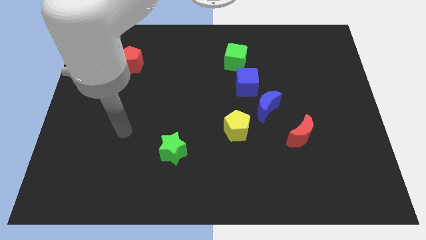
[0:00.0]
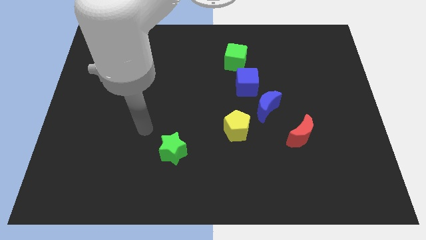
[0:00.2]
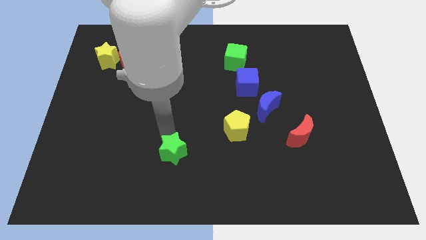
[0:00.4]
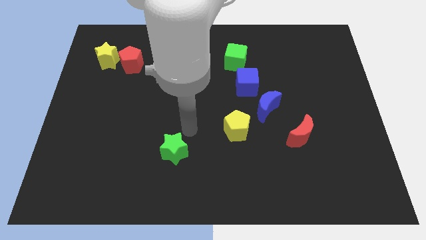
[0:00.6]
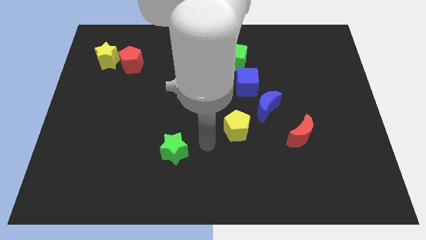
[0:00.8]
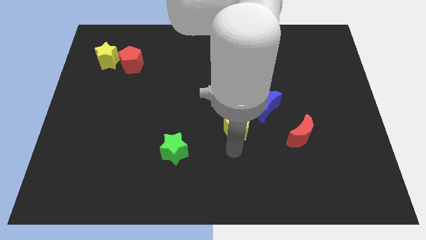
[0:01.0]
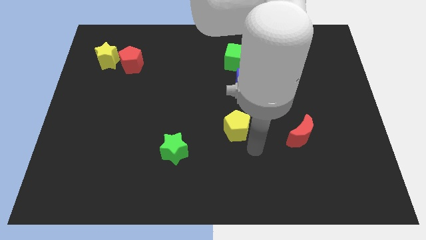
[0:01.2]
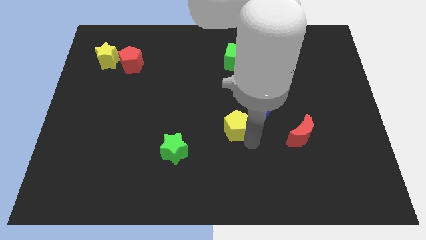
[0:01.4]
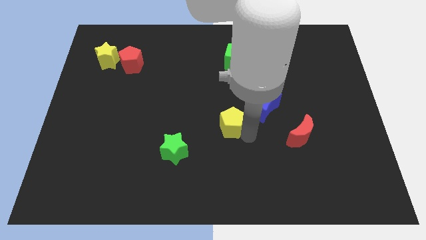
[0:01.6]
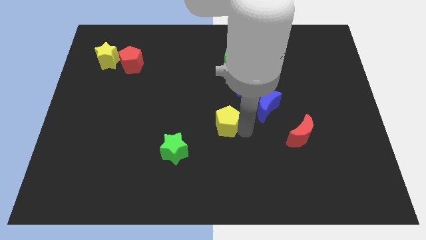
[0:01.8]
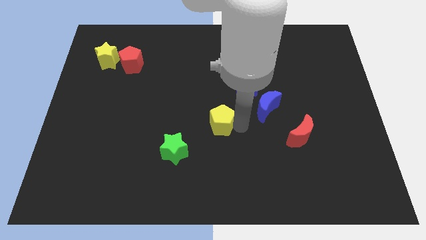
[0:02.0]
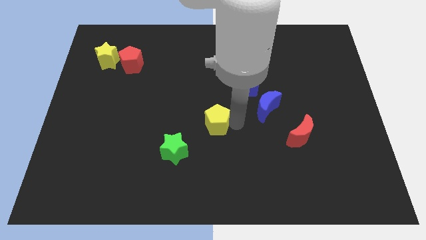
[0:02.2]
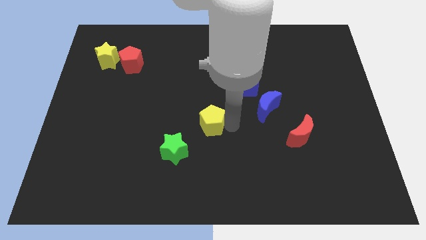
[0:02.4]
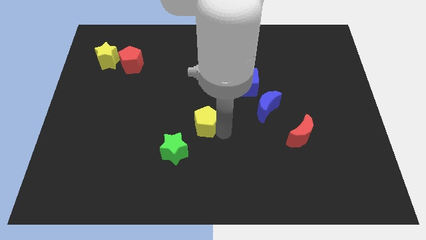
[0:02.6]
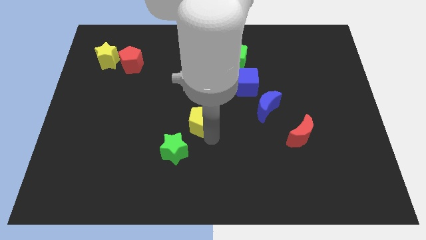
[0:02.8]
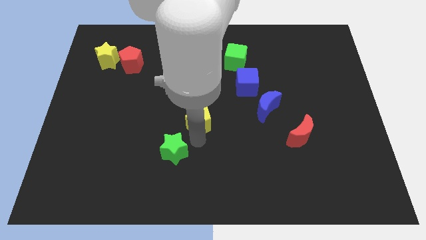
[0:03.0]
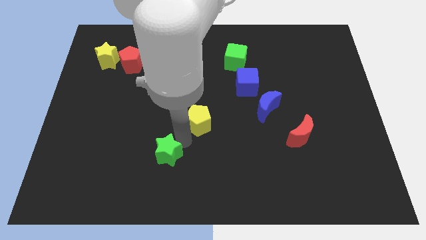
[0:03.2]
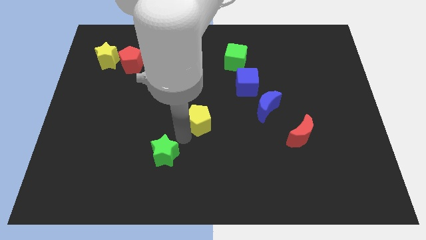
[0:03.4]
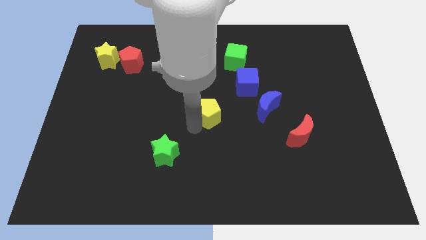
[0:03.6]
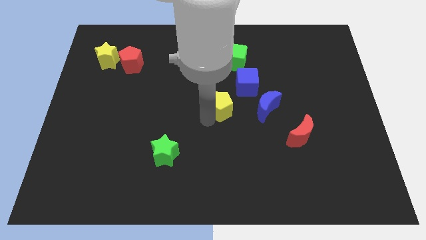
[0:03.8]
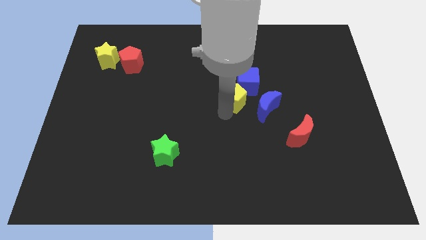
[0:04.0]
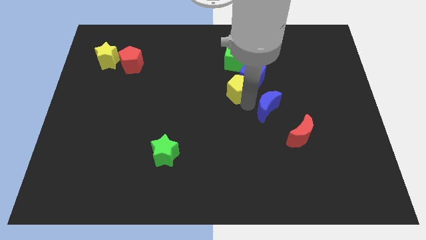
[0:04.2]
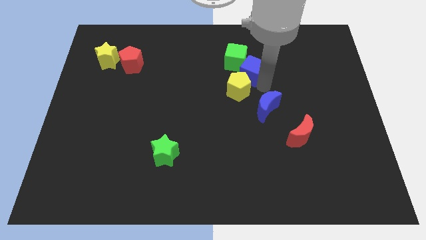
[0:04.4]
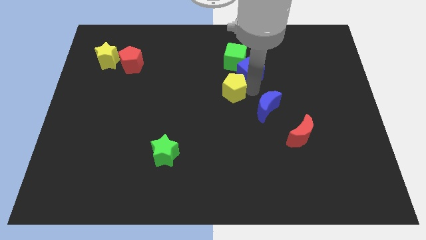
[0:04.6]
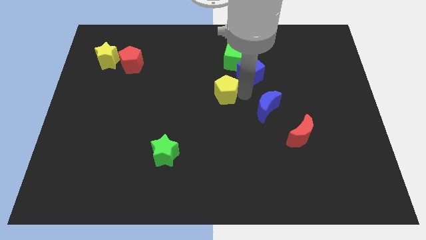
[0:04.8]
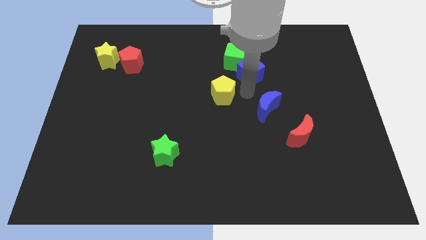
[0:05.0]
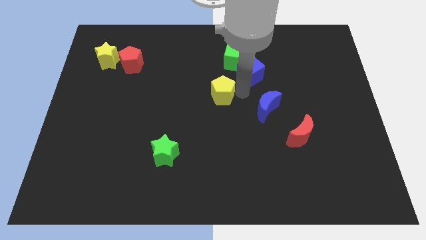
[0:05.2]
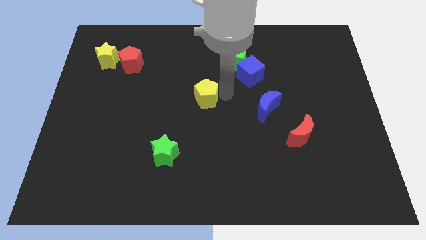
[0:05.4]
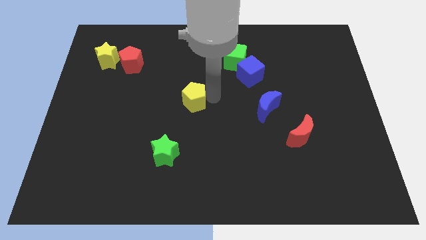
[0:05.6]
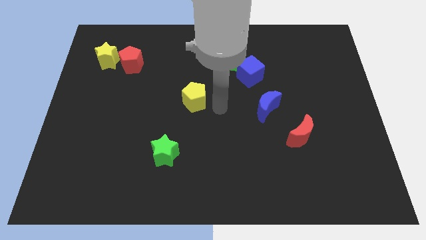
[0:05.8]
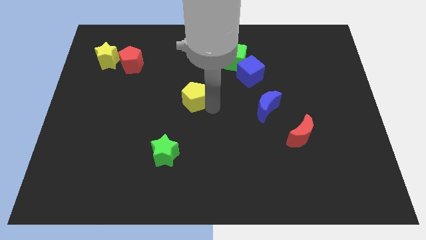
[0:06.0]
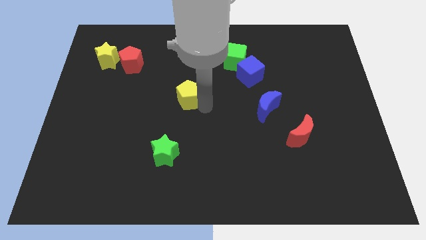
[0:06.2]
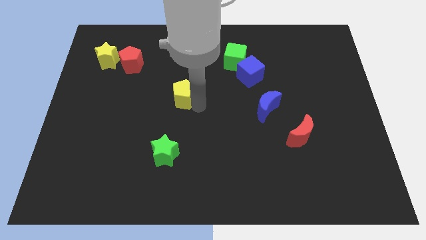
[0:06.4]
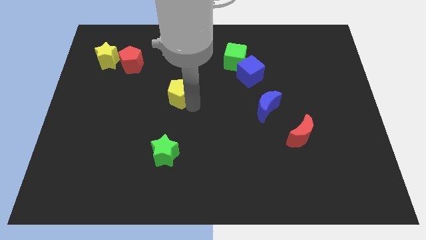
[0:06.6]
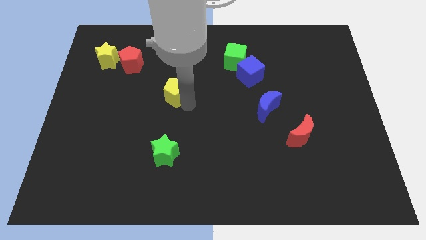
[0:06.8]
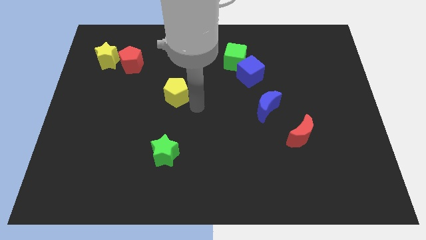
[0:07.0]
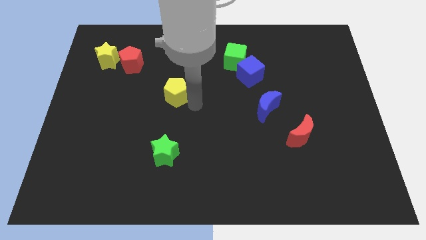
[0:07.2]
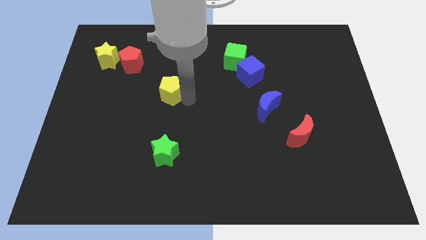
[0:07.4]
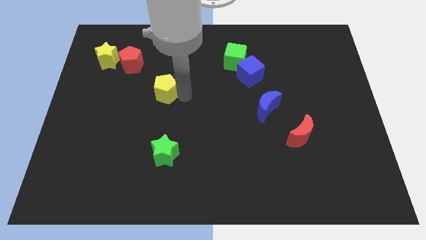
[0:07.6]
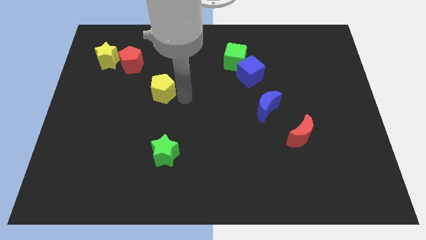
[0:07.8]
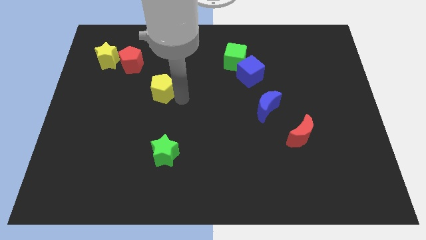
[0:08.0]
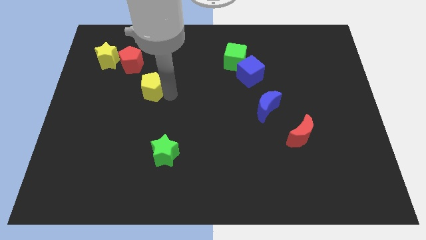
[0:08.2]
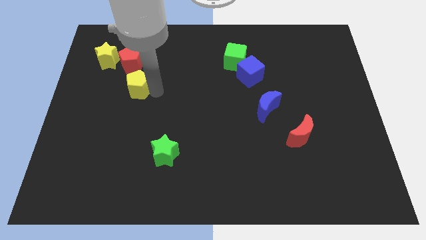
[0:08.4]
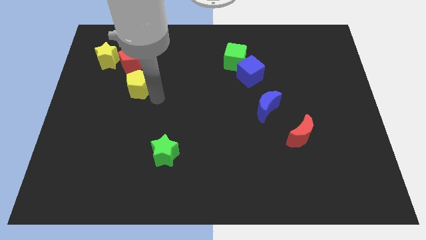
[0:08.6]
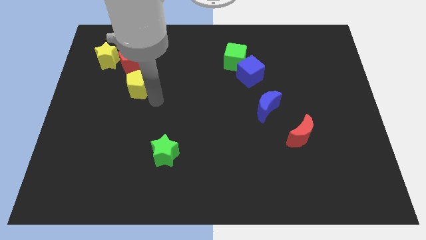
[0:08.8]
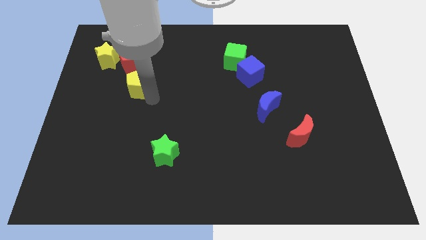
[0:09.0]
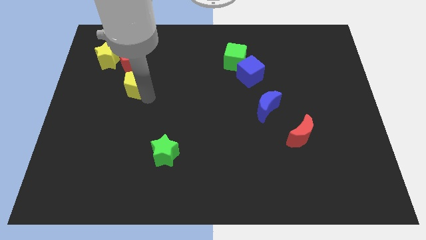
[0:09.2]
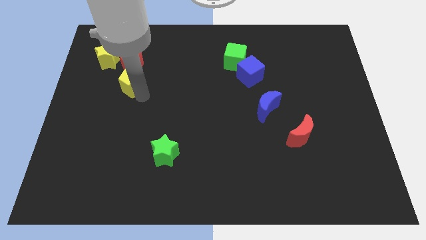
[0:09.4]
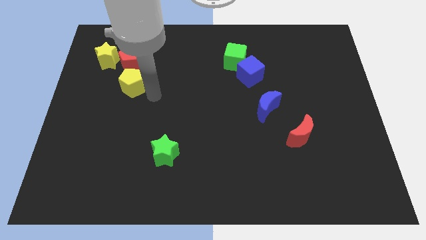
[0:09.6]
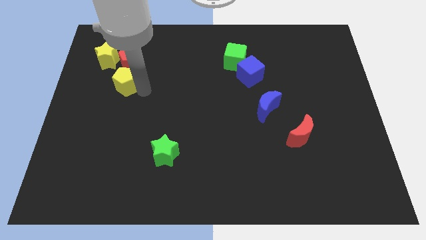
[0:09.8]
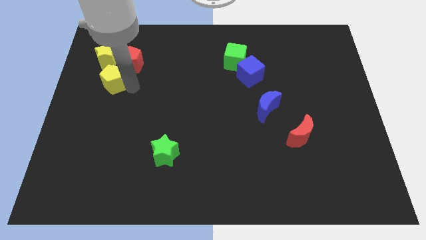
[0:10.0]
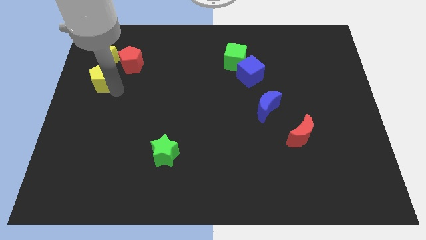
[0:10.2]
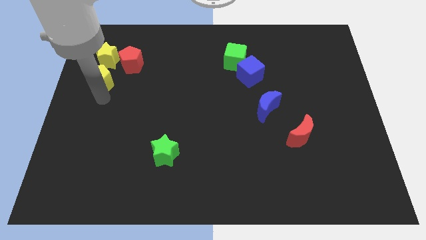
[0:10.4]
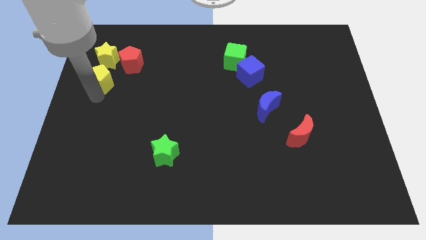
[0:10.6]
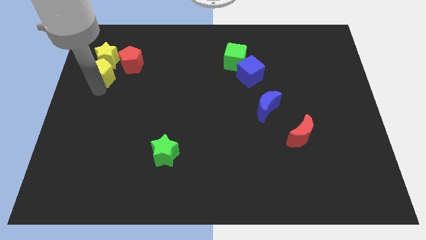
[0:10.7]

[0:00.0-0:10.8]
push the yellow pentagon close to the yellow star

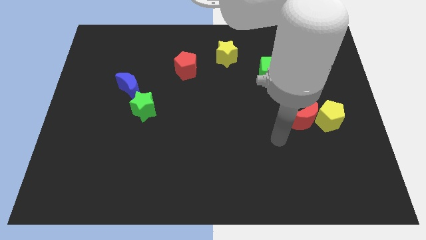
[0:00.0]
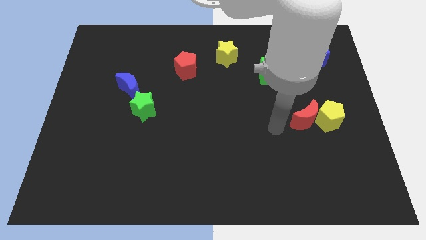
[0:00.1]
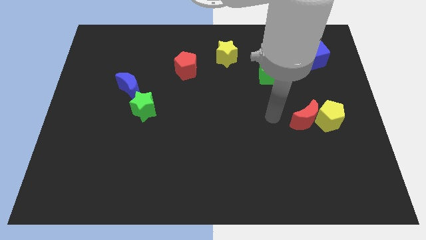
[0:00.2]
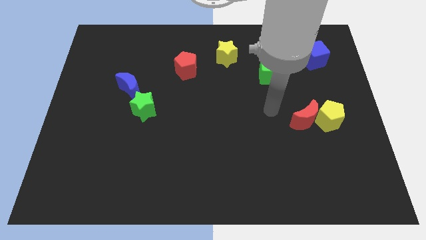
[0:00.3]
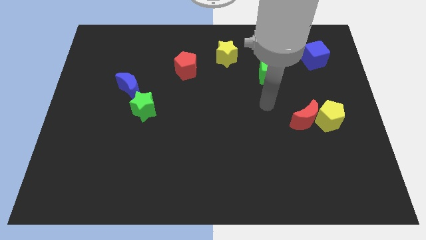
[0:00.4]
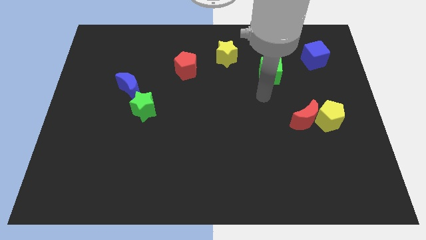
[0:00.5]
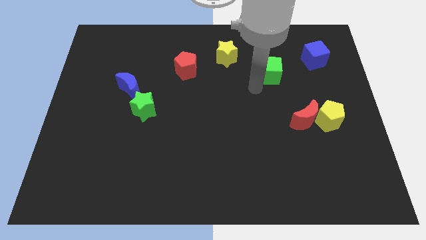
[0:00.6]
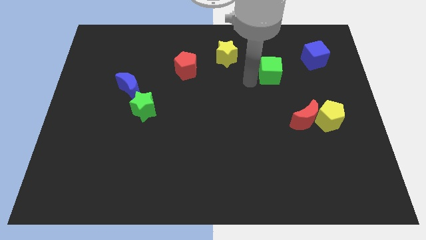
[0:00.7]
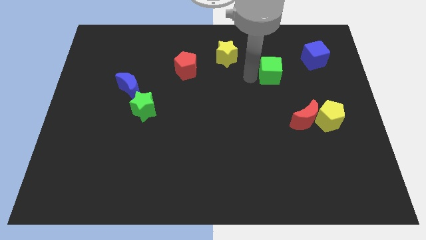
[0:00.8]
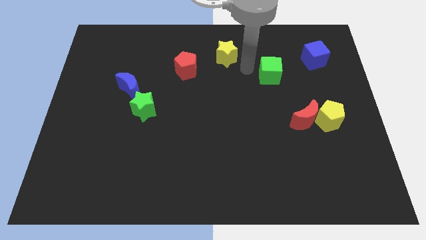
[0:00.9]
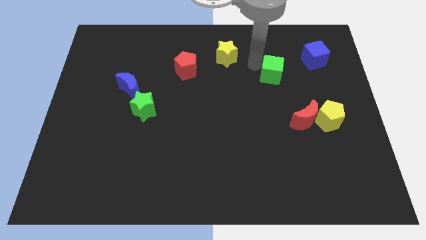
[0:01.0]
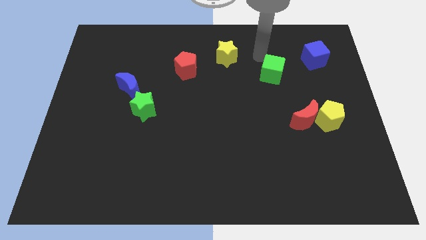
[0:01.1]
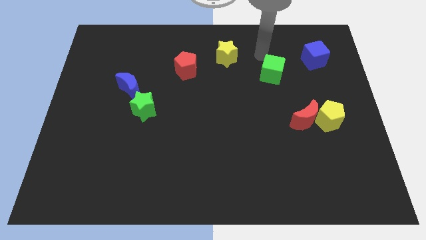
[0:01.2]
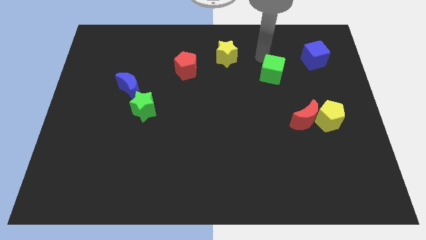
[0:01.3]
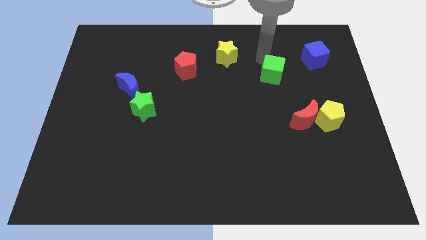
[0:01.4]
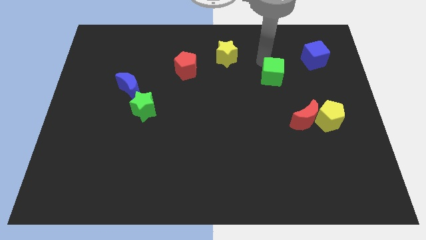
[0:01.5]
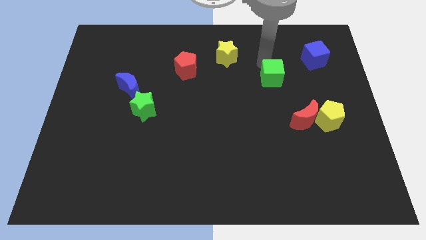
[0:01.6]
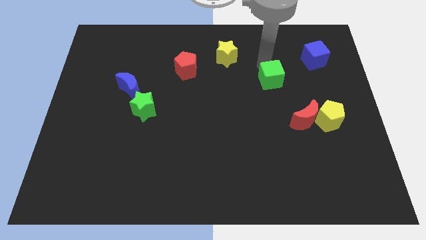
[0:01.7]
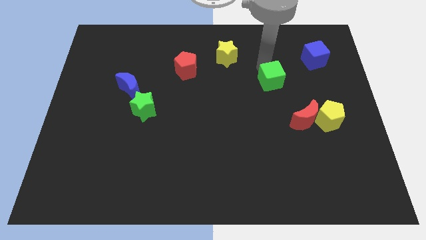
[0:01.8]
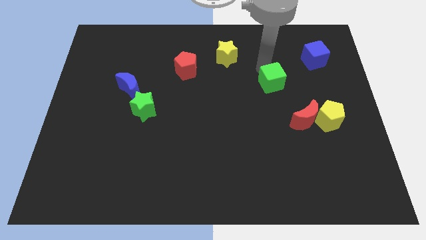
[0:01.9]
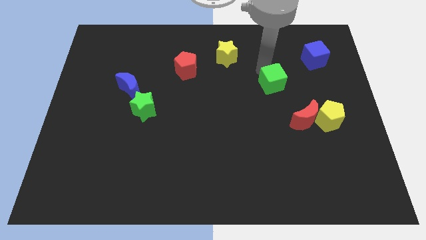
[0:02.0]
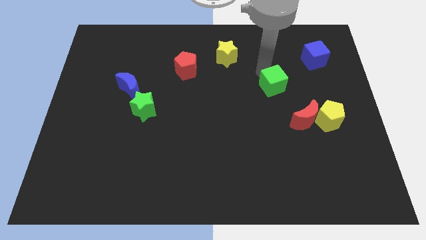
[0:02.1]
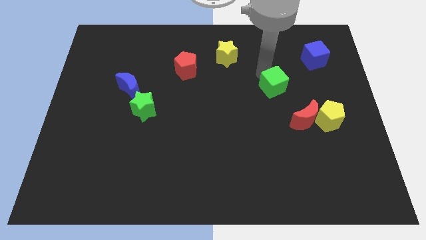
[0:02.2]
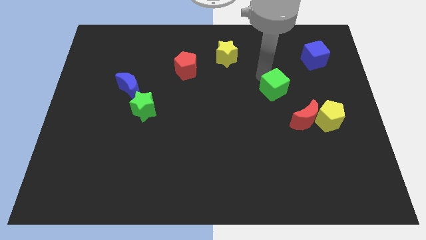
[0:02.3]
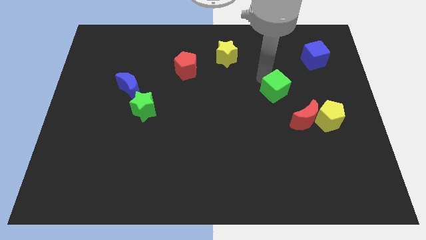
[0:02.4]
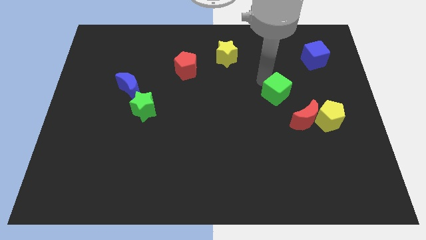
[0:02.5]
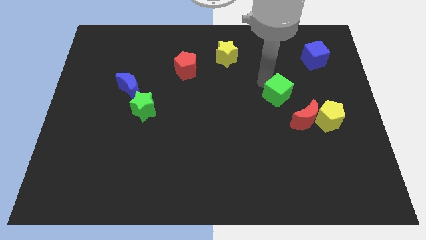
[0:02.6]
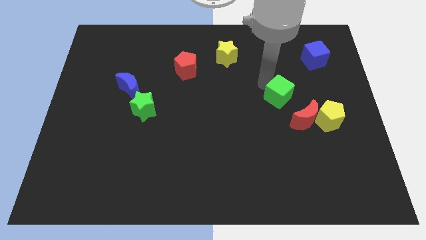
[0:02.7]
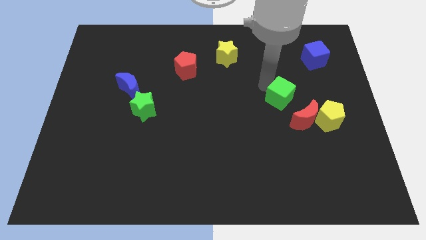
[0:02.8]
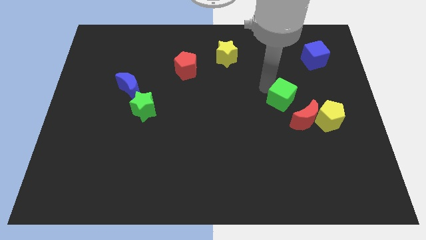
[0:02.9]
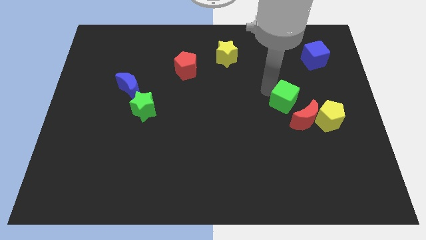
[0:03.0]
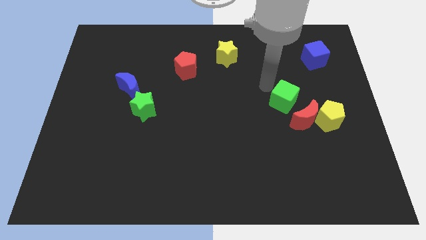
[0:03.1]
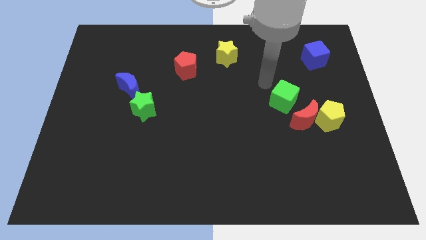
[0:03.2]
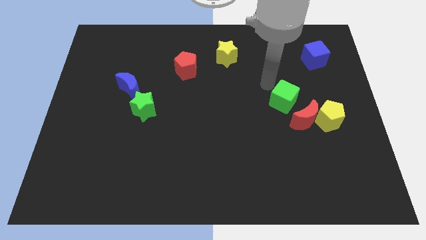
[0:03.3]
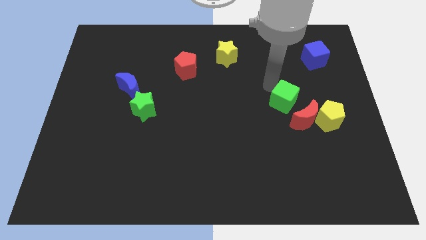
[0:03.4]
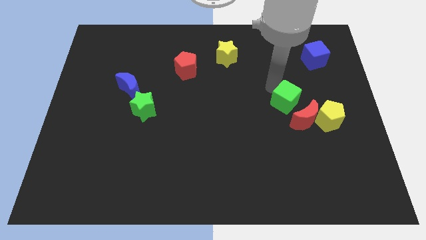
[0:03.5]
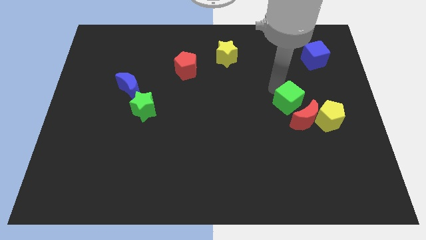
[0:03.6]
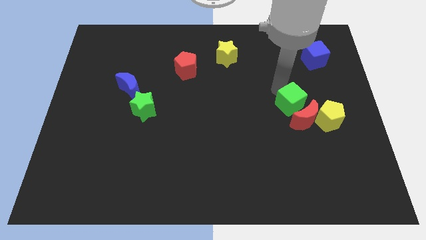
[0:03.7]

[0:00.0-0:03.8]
slide the green cube towards the red moon
